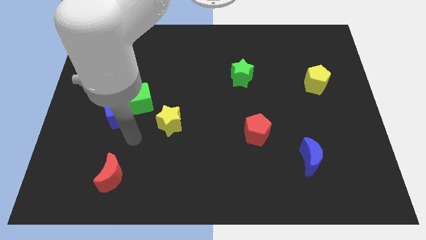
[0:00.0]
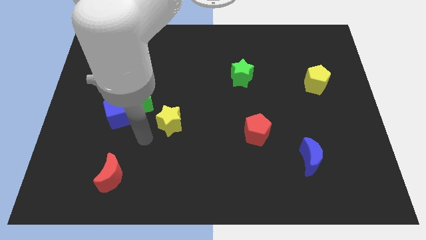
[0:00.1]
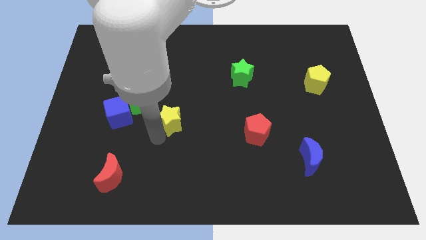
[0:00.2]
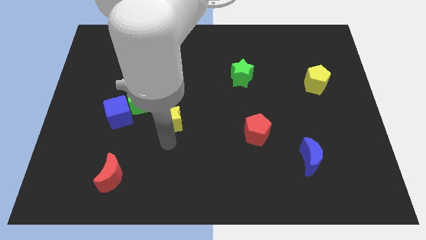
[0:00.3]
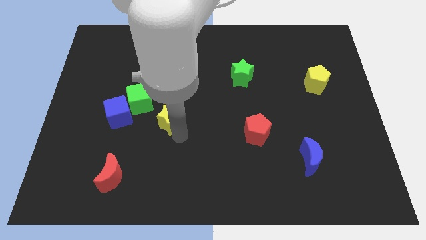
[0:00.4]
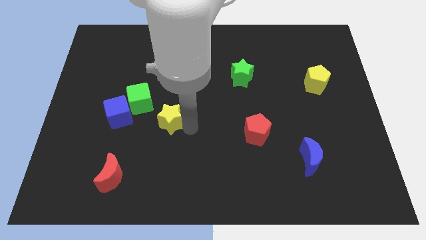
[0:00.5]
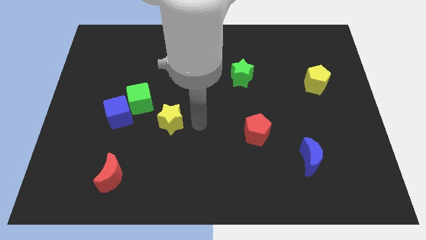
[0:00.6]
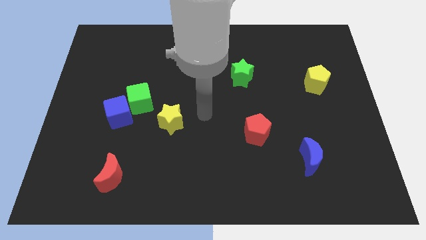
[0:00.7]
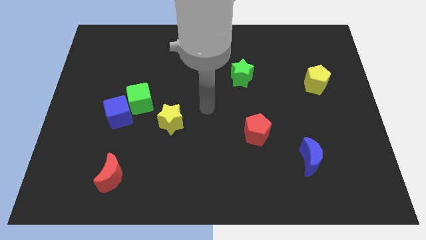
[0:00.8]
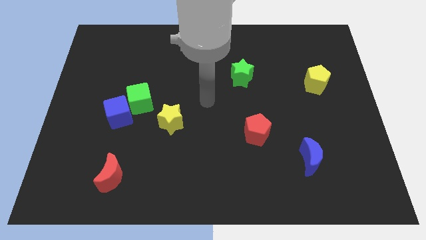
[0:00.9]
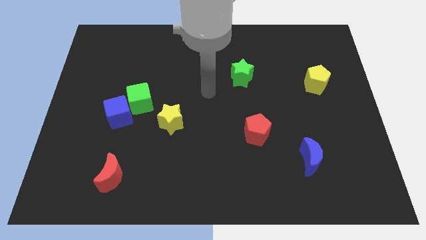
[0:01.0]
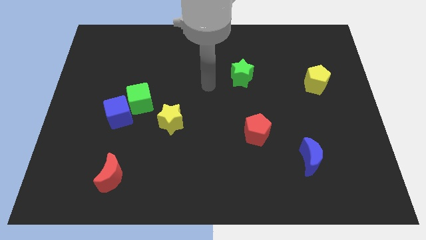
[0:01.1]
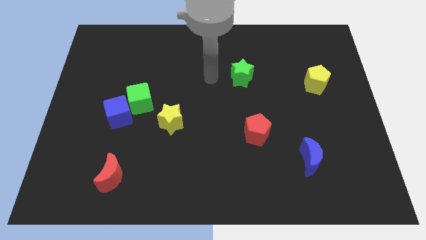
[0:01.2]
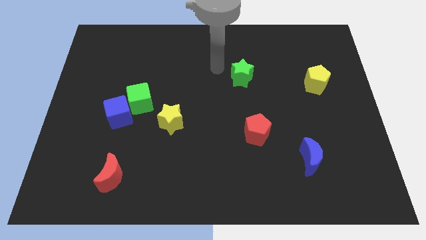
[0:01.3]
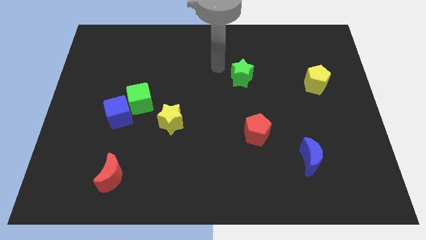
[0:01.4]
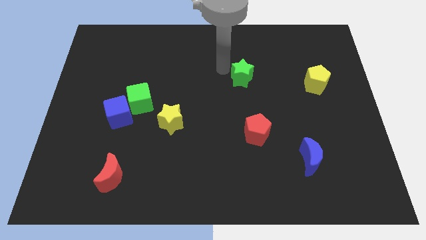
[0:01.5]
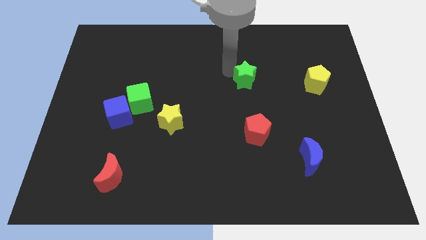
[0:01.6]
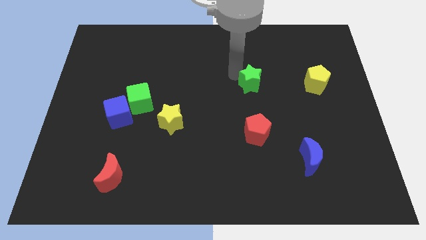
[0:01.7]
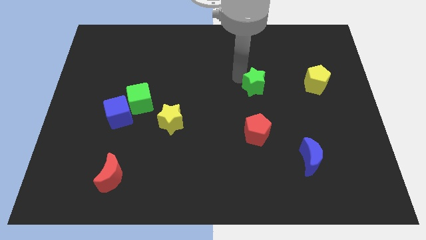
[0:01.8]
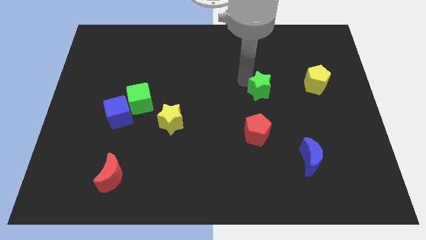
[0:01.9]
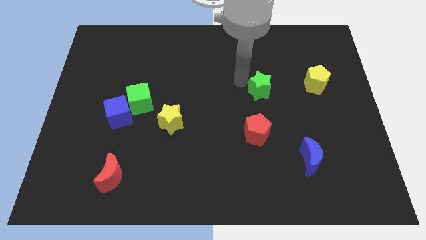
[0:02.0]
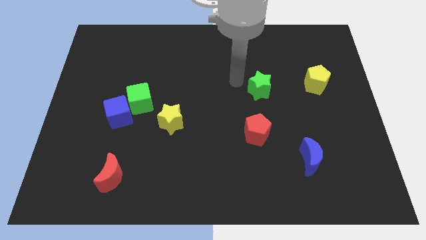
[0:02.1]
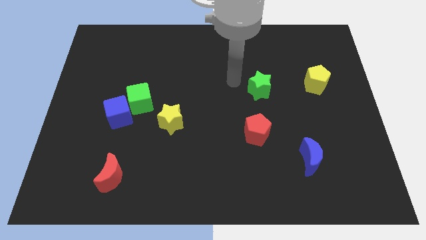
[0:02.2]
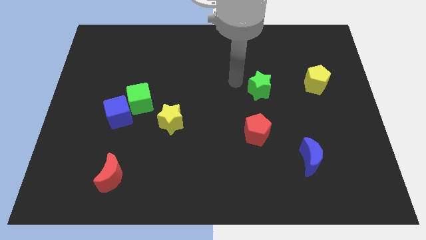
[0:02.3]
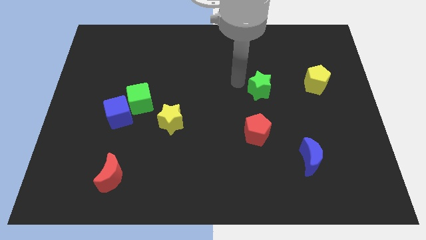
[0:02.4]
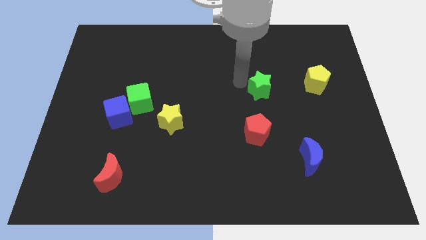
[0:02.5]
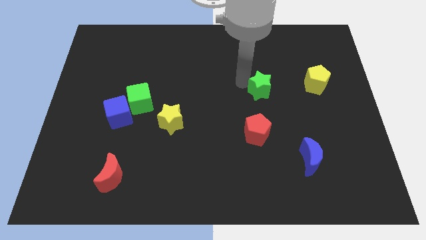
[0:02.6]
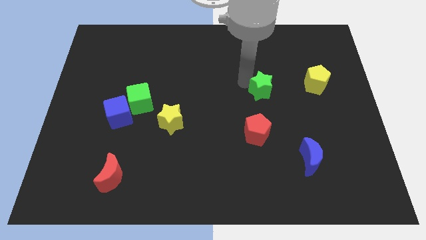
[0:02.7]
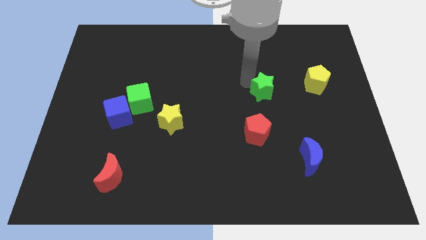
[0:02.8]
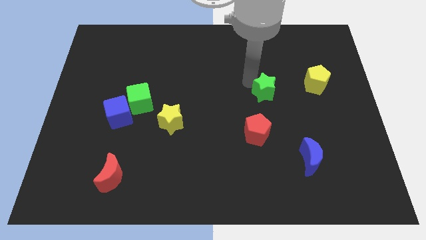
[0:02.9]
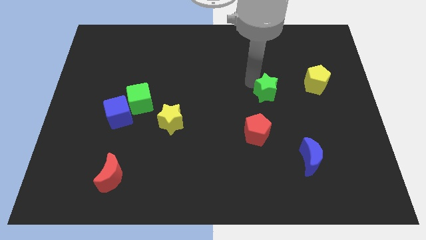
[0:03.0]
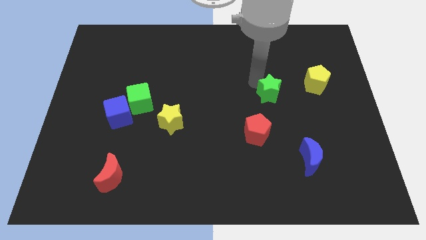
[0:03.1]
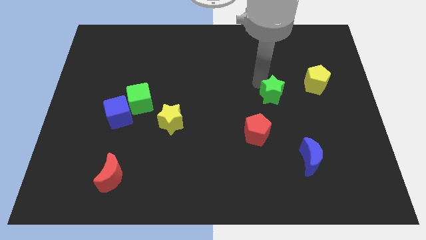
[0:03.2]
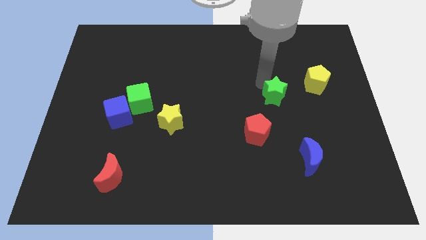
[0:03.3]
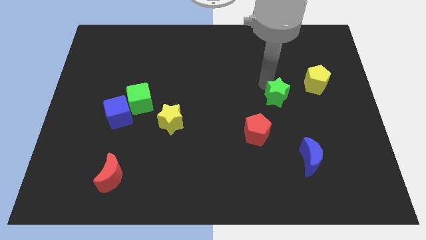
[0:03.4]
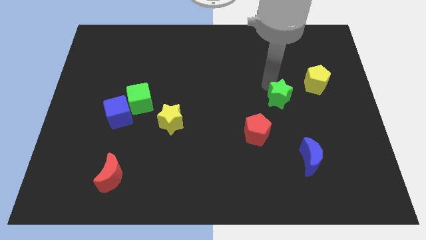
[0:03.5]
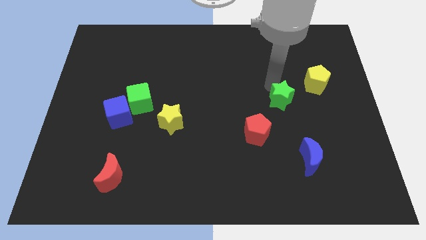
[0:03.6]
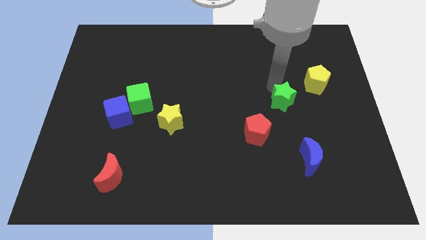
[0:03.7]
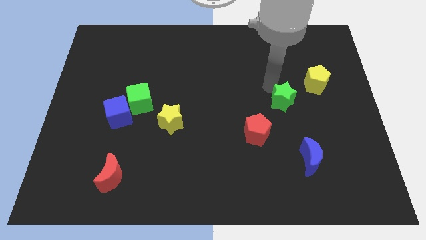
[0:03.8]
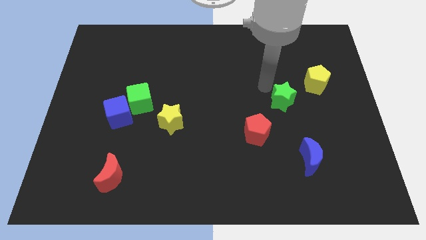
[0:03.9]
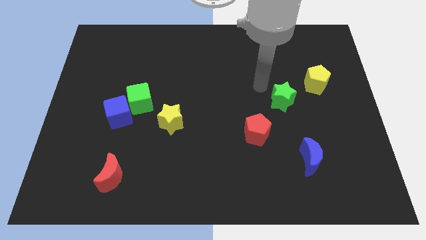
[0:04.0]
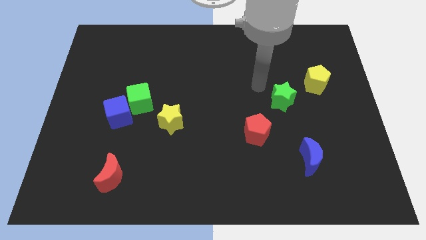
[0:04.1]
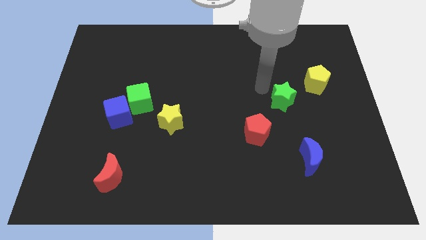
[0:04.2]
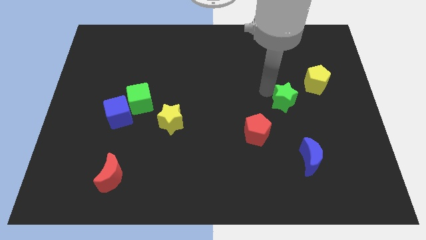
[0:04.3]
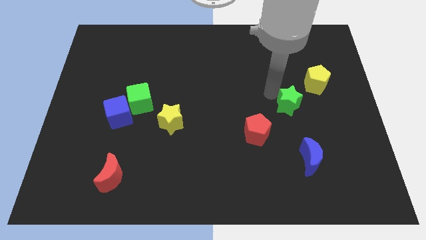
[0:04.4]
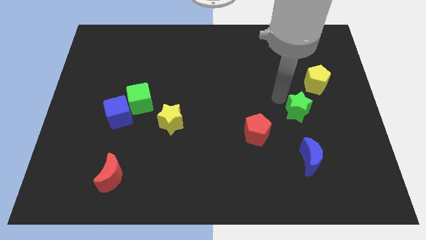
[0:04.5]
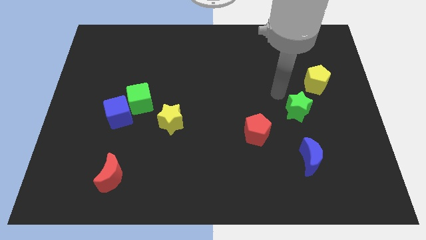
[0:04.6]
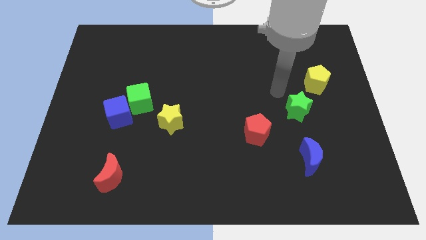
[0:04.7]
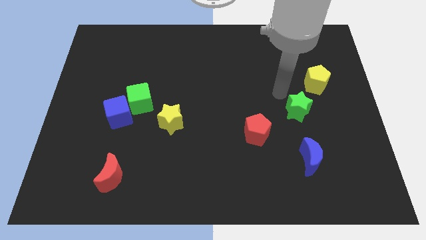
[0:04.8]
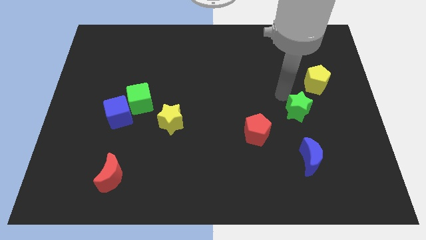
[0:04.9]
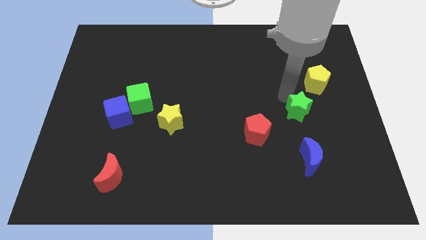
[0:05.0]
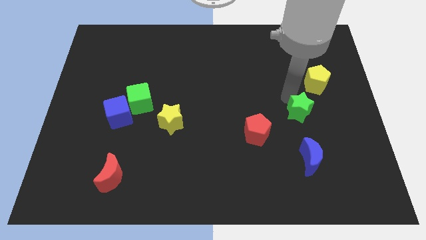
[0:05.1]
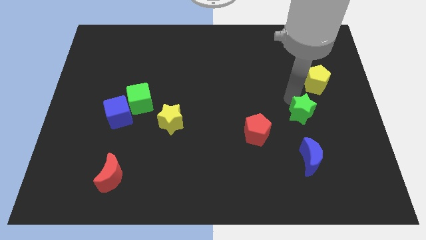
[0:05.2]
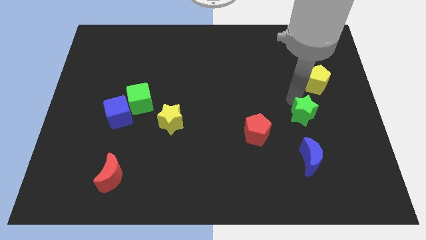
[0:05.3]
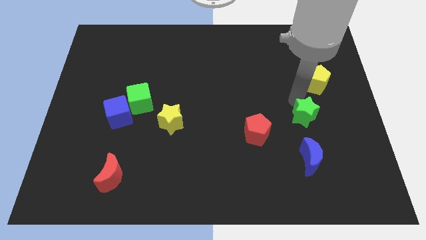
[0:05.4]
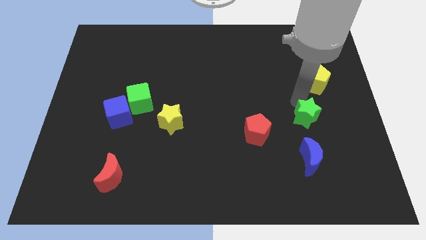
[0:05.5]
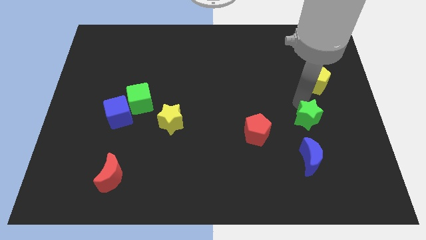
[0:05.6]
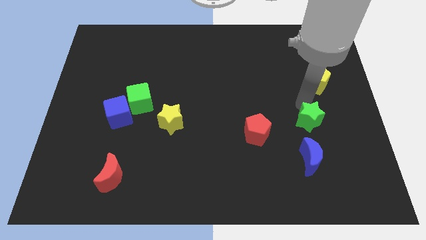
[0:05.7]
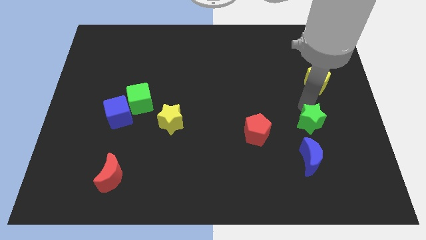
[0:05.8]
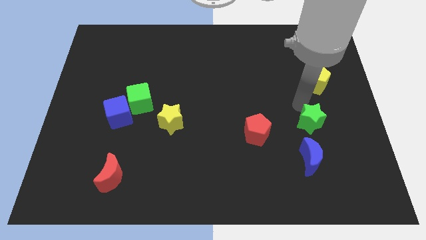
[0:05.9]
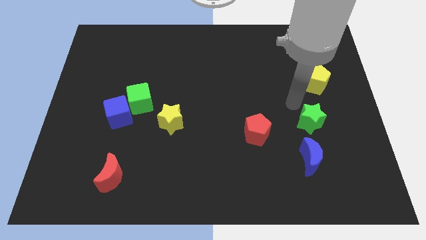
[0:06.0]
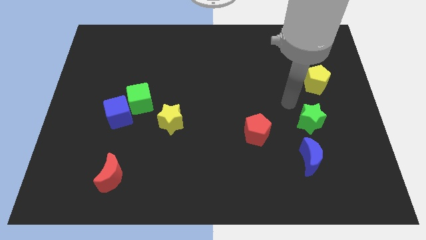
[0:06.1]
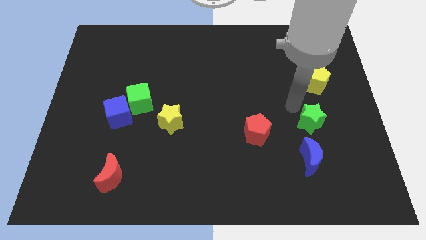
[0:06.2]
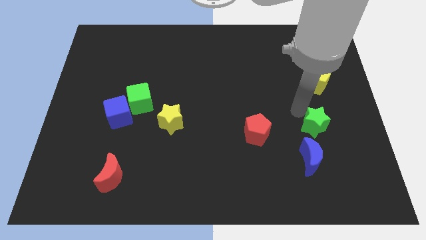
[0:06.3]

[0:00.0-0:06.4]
push the green star to the top right of the blue moon
